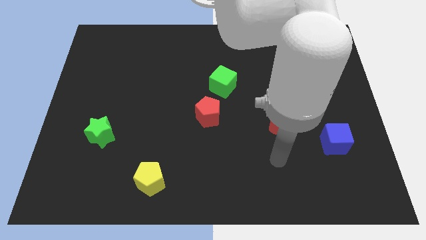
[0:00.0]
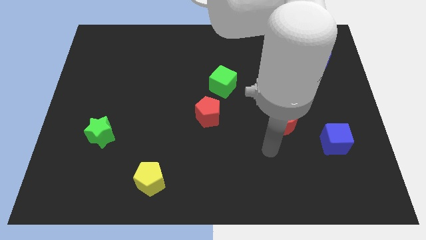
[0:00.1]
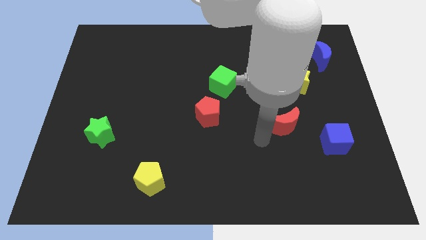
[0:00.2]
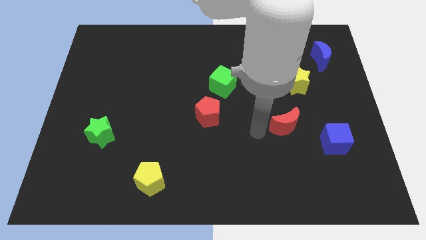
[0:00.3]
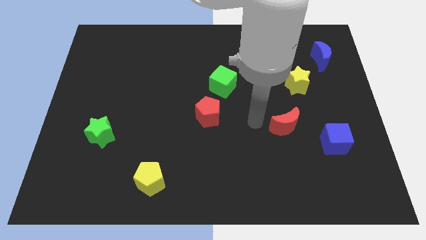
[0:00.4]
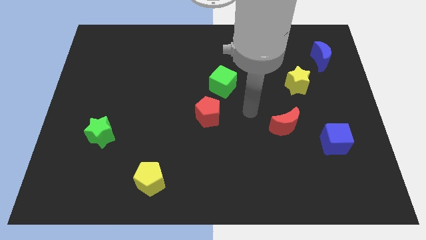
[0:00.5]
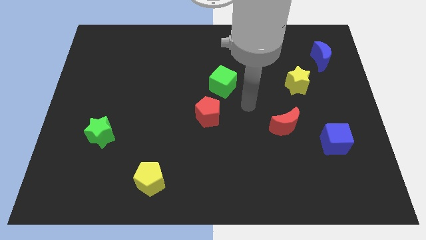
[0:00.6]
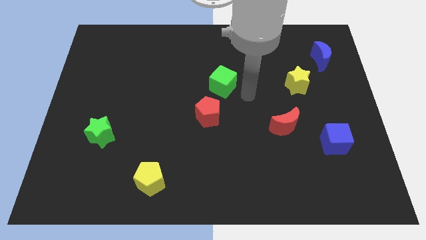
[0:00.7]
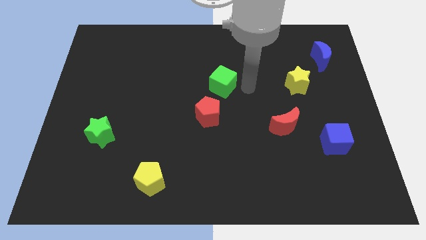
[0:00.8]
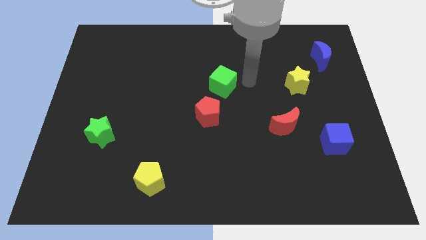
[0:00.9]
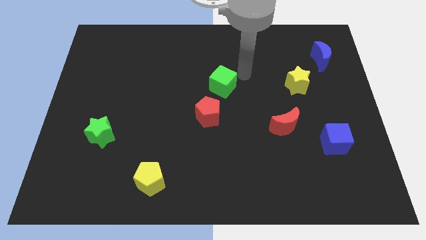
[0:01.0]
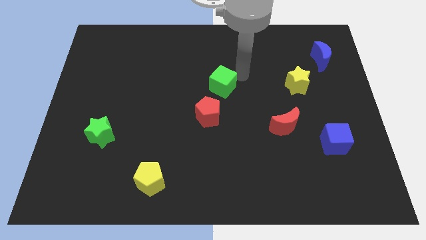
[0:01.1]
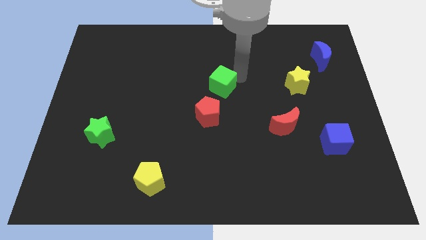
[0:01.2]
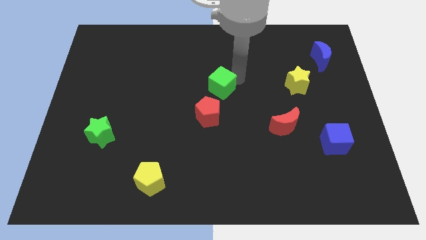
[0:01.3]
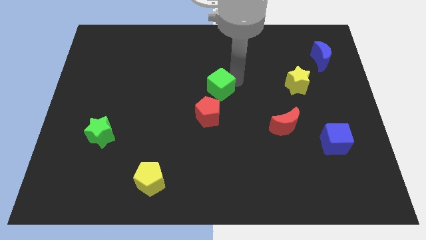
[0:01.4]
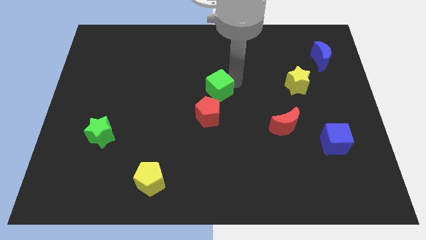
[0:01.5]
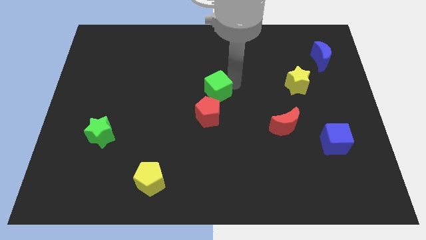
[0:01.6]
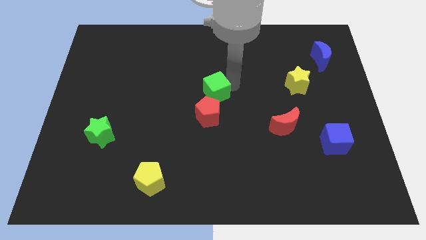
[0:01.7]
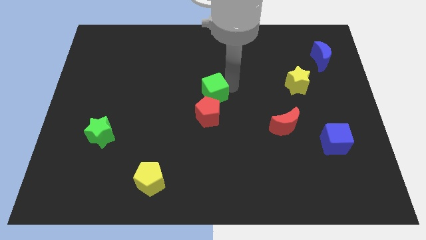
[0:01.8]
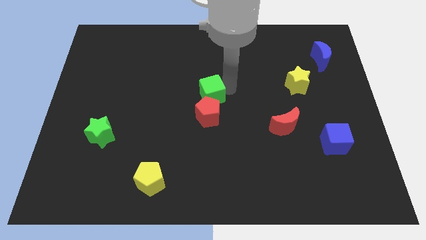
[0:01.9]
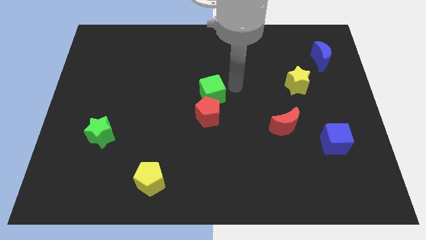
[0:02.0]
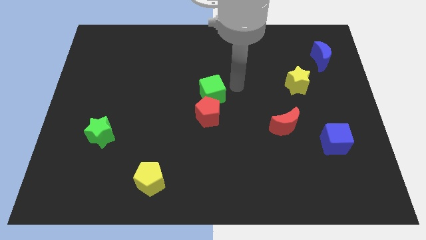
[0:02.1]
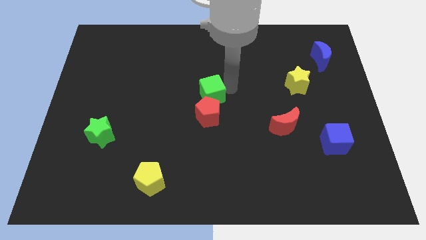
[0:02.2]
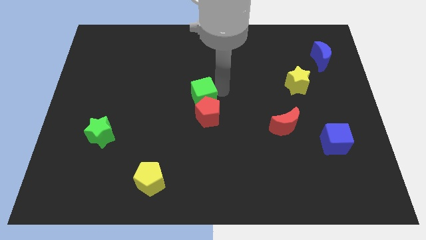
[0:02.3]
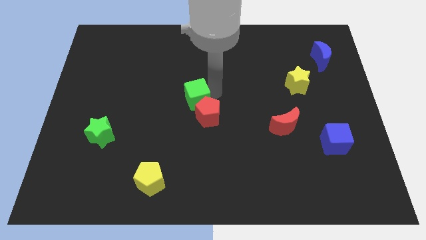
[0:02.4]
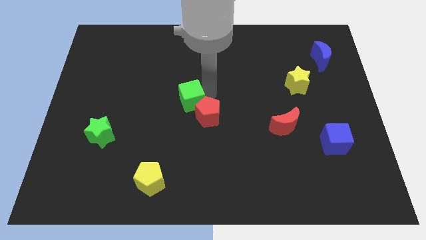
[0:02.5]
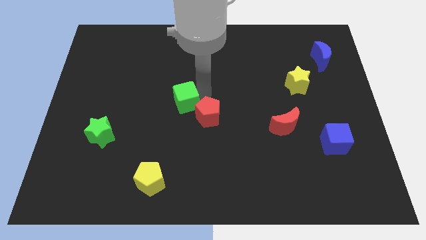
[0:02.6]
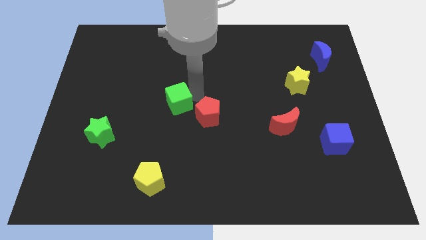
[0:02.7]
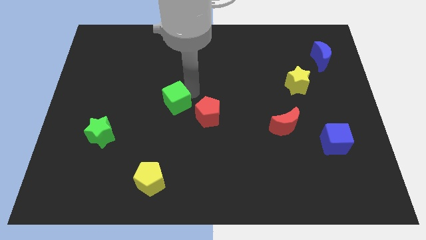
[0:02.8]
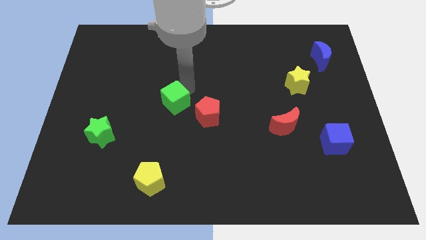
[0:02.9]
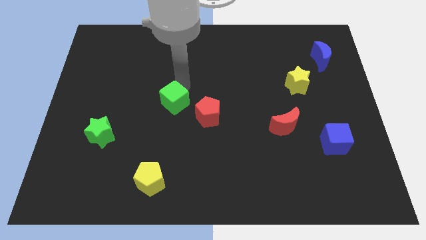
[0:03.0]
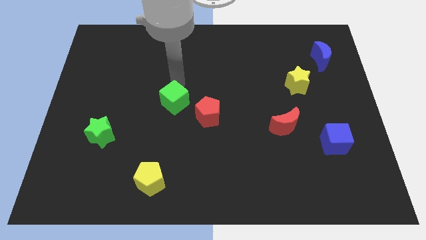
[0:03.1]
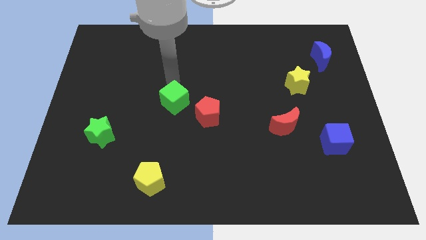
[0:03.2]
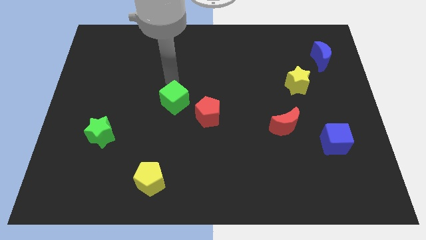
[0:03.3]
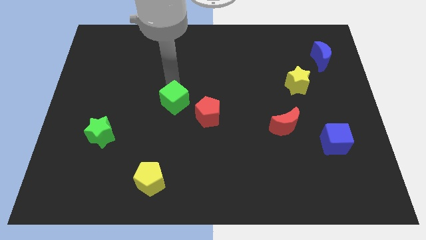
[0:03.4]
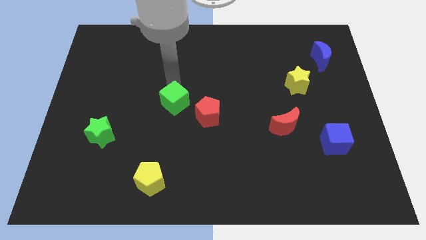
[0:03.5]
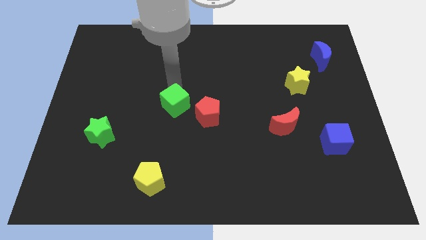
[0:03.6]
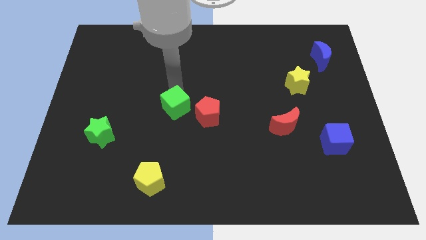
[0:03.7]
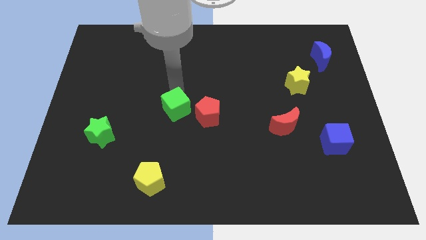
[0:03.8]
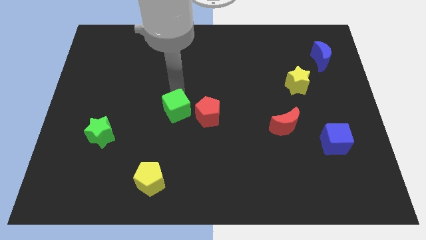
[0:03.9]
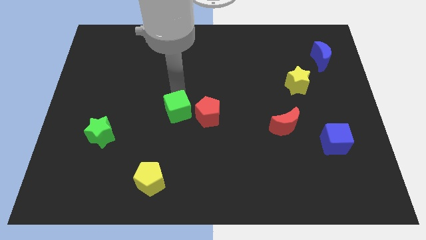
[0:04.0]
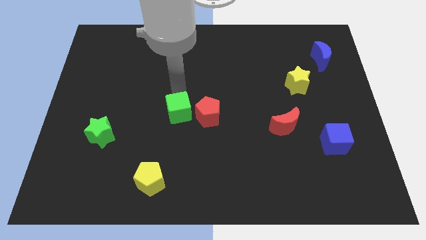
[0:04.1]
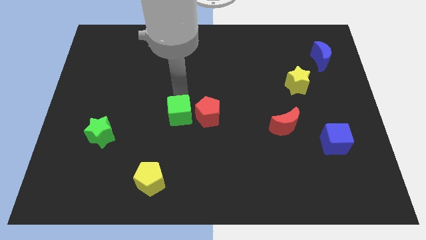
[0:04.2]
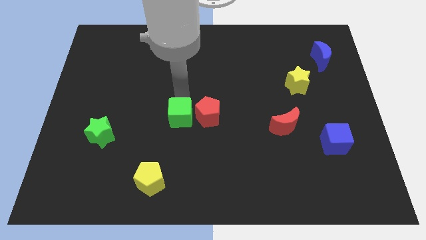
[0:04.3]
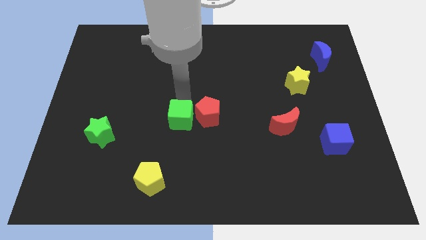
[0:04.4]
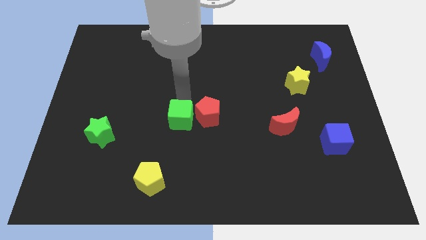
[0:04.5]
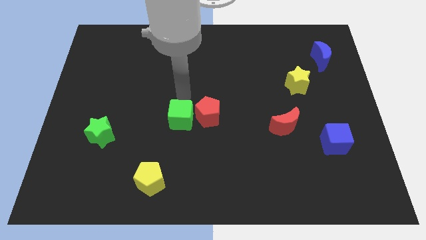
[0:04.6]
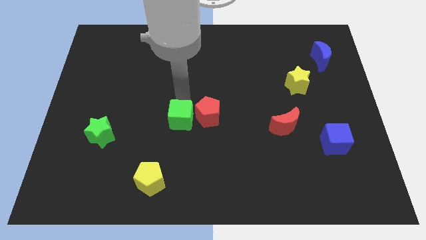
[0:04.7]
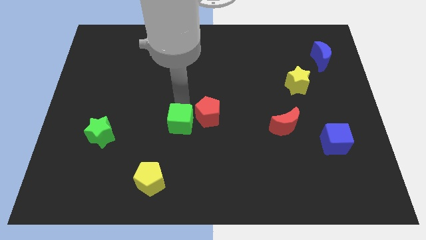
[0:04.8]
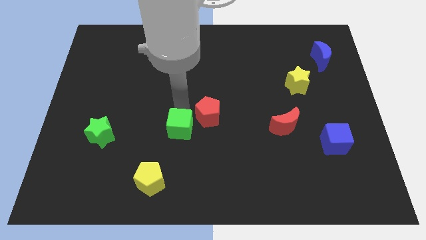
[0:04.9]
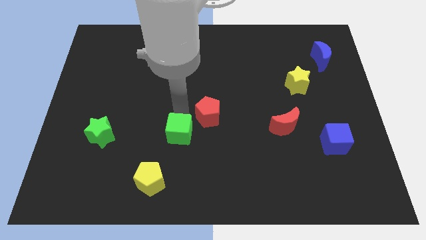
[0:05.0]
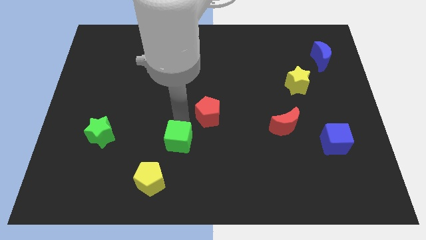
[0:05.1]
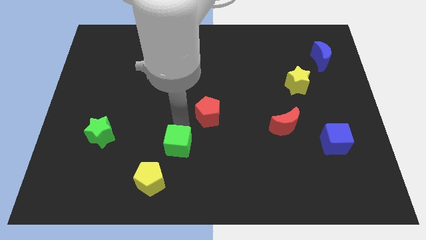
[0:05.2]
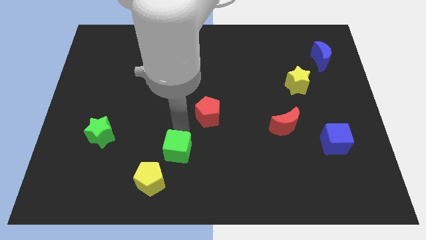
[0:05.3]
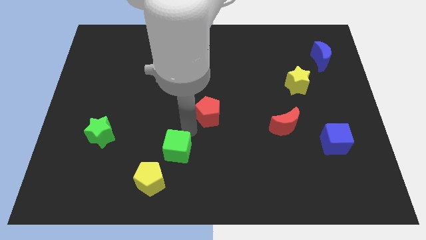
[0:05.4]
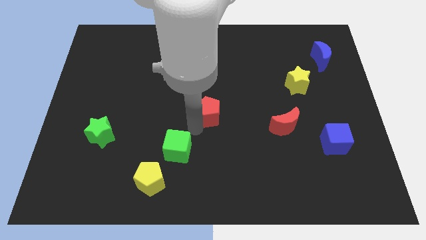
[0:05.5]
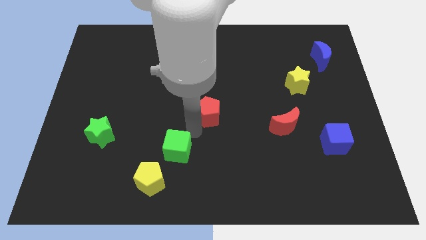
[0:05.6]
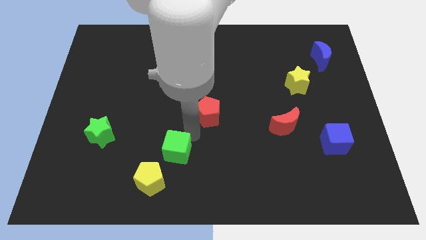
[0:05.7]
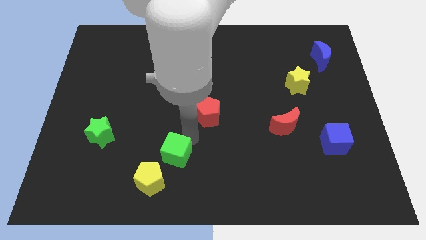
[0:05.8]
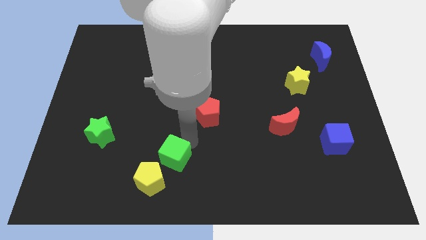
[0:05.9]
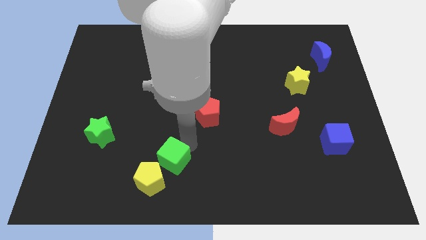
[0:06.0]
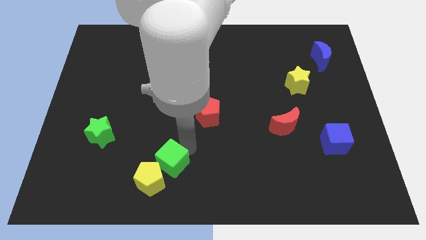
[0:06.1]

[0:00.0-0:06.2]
slide the green cube to the yellow pentagon
